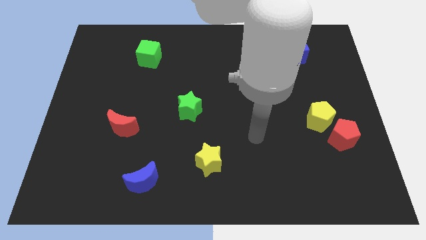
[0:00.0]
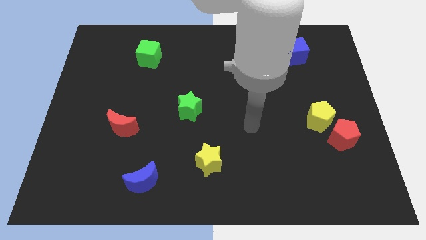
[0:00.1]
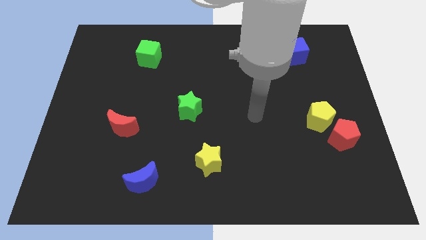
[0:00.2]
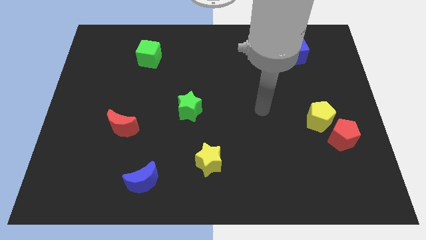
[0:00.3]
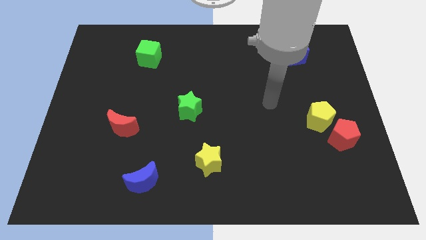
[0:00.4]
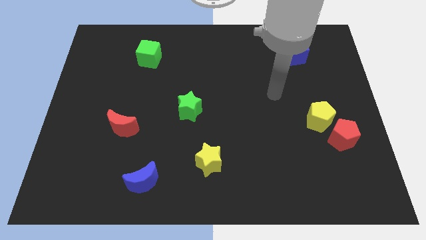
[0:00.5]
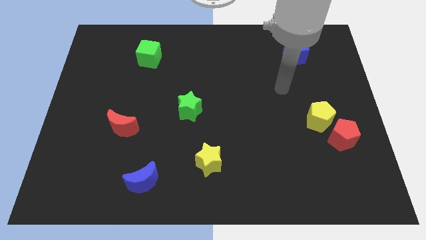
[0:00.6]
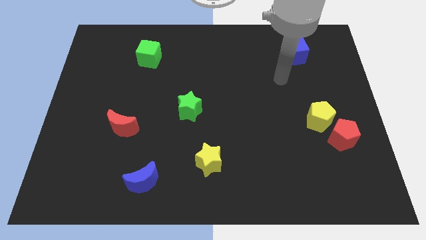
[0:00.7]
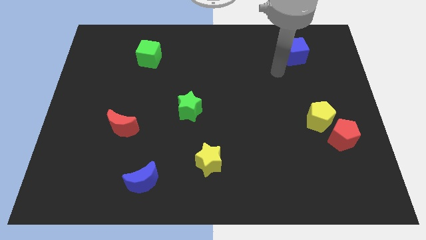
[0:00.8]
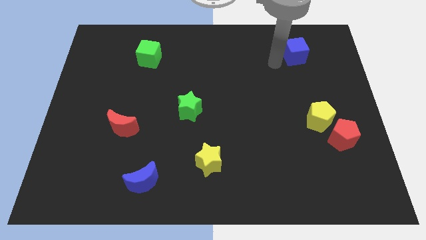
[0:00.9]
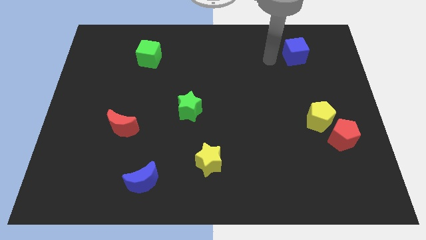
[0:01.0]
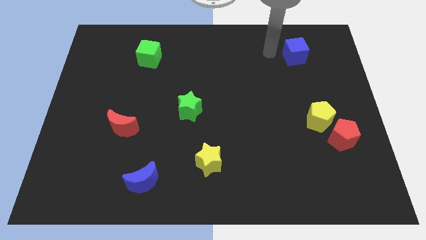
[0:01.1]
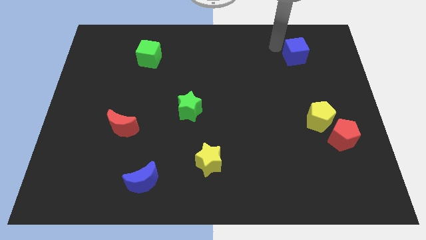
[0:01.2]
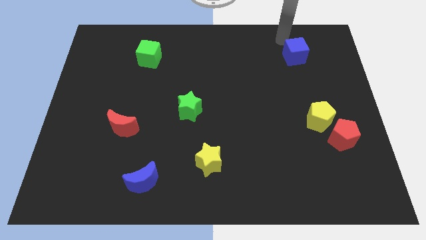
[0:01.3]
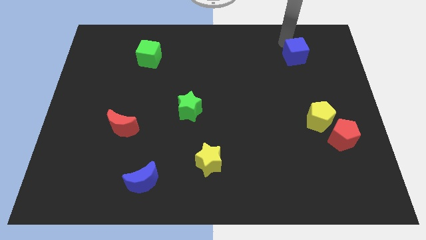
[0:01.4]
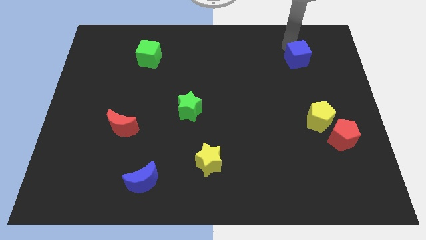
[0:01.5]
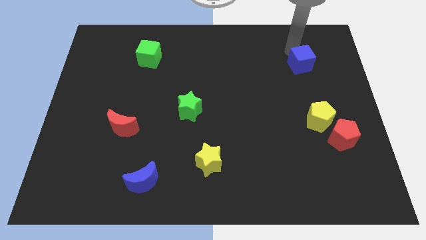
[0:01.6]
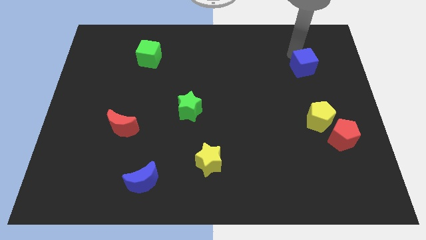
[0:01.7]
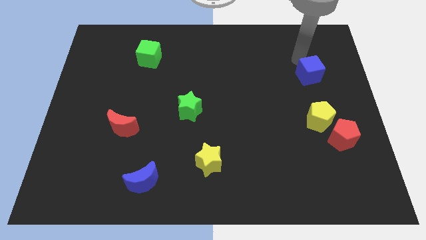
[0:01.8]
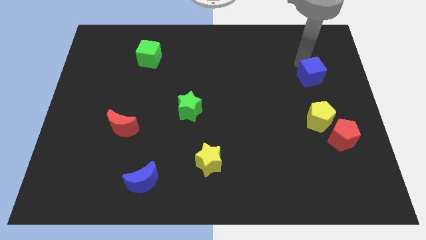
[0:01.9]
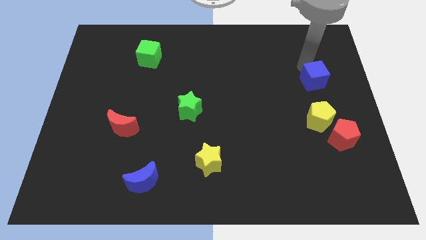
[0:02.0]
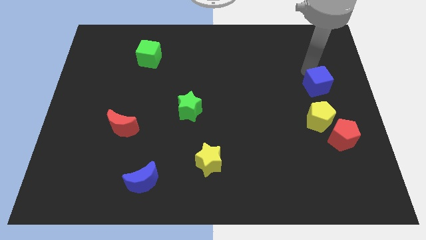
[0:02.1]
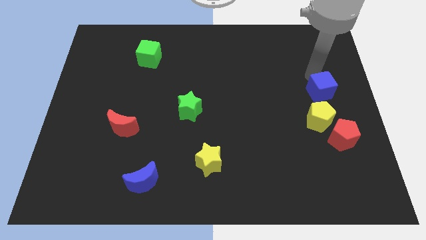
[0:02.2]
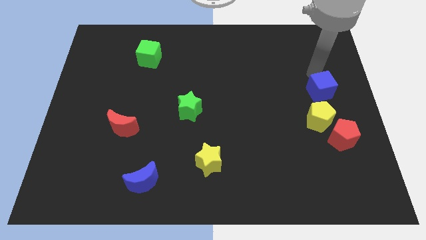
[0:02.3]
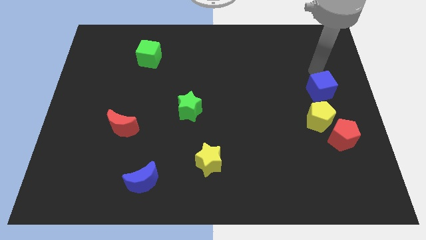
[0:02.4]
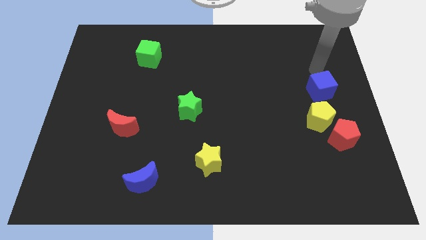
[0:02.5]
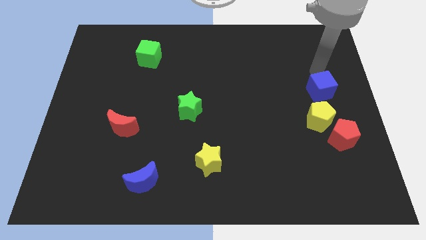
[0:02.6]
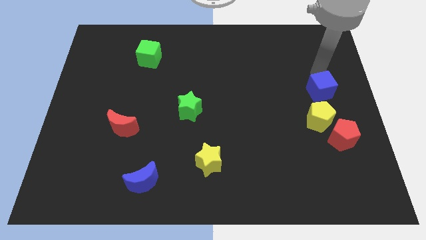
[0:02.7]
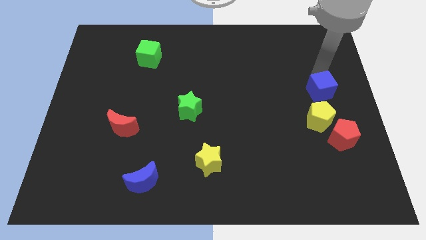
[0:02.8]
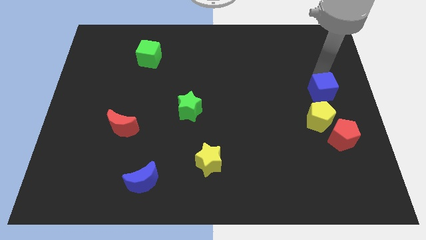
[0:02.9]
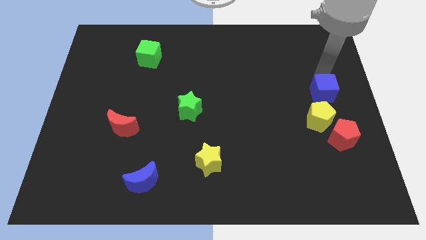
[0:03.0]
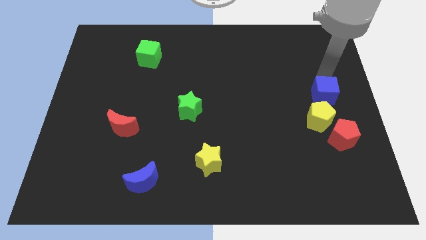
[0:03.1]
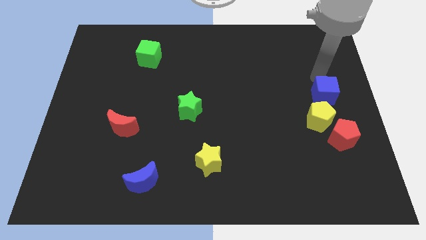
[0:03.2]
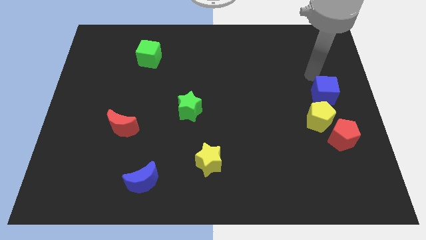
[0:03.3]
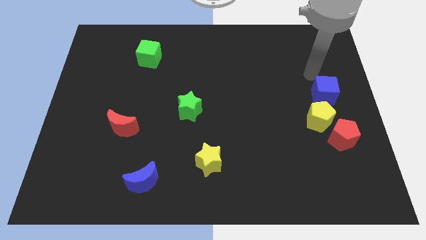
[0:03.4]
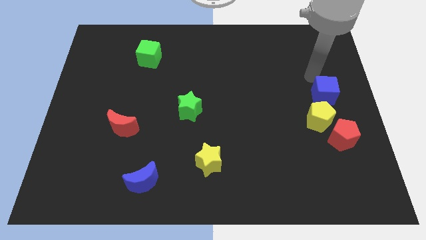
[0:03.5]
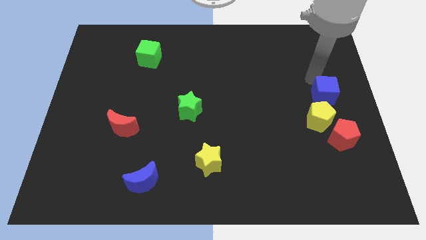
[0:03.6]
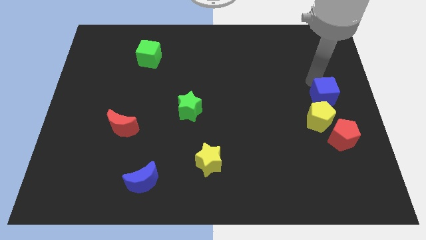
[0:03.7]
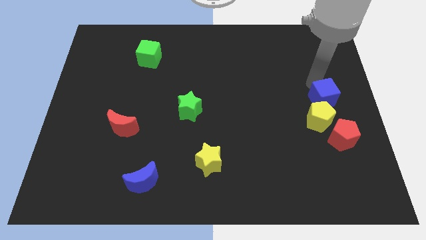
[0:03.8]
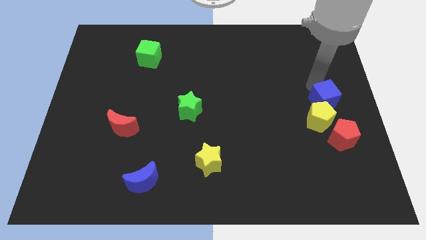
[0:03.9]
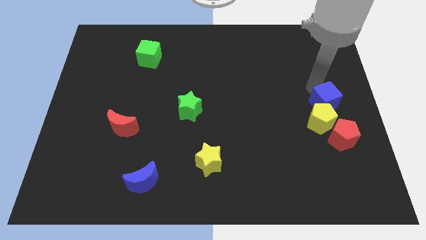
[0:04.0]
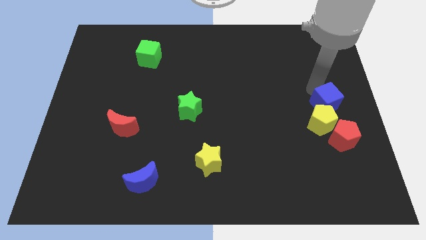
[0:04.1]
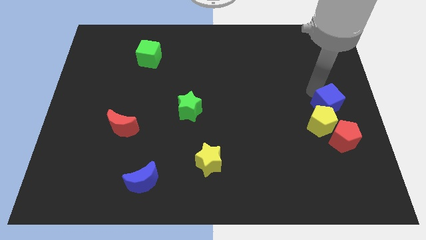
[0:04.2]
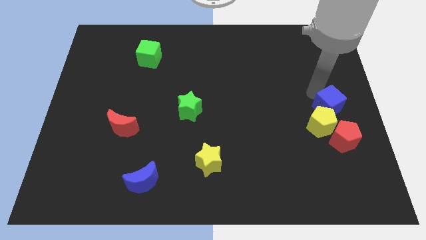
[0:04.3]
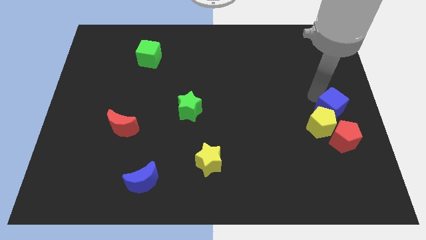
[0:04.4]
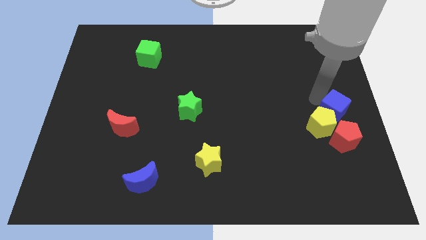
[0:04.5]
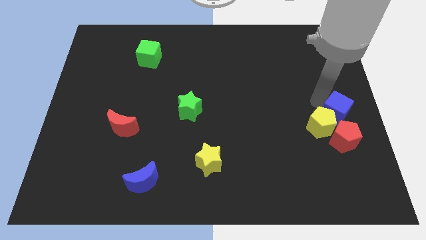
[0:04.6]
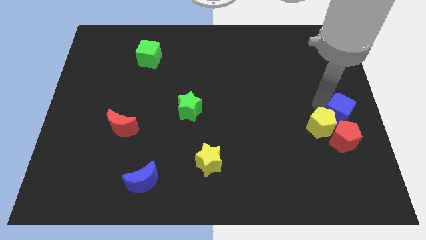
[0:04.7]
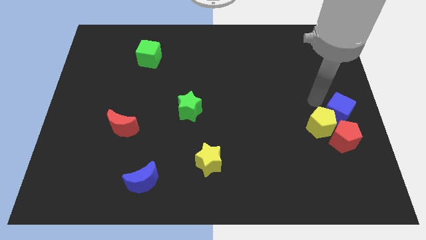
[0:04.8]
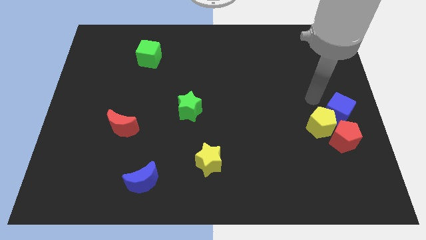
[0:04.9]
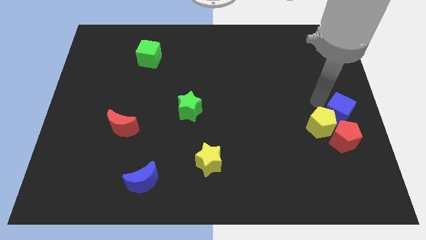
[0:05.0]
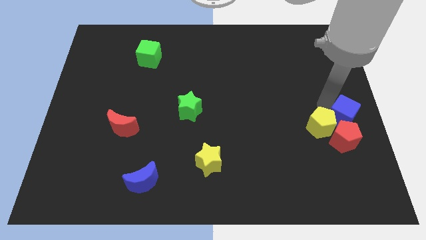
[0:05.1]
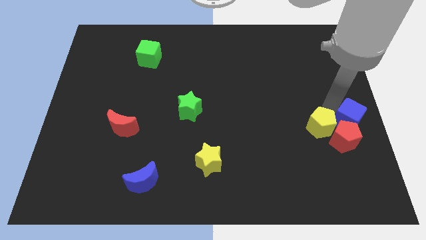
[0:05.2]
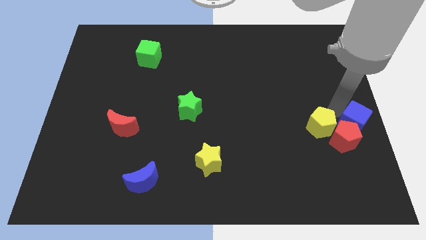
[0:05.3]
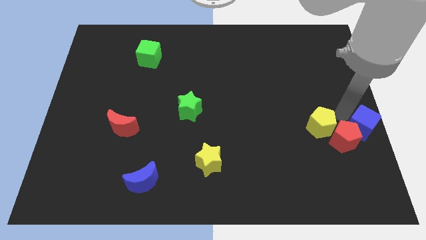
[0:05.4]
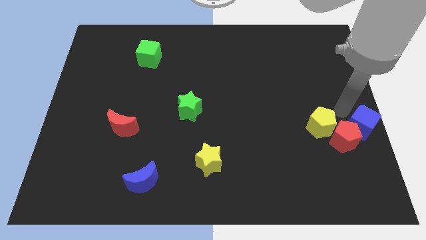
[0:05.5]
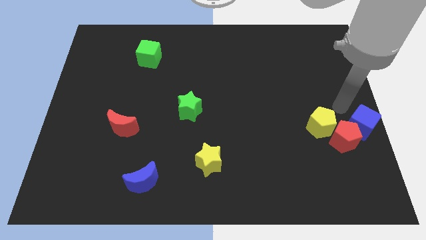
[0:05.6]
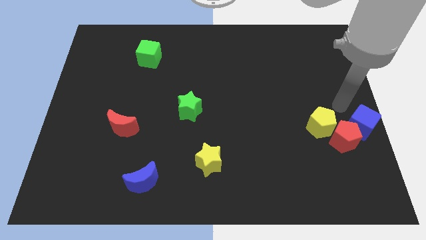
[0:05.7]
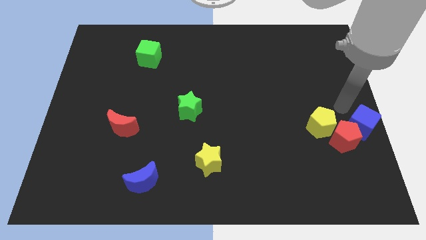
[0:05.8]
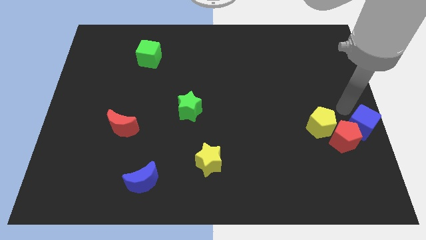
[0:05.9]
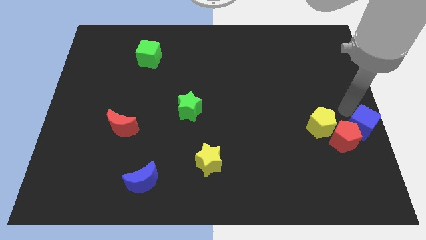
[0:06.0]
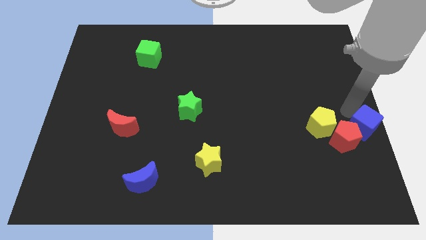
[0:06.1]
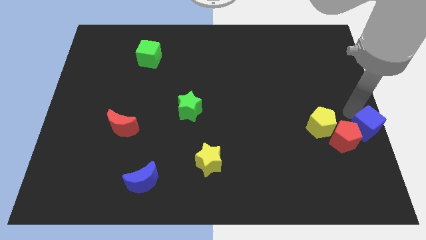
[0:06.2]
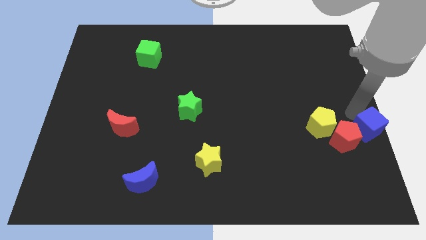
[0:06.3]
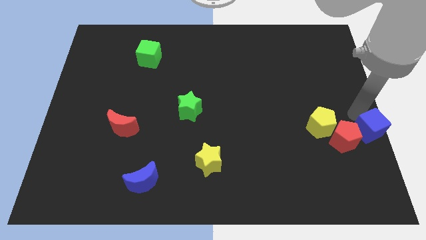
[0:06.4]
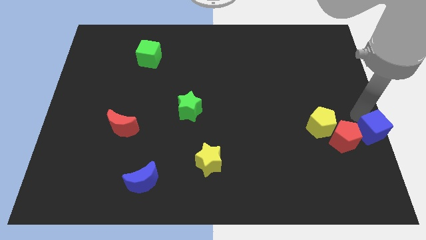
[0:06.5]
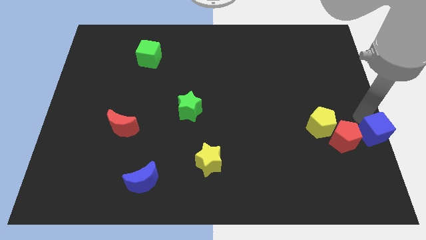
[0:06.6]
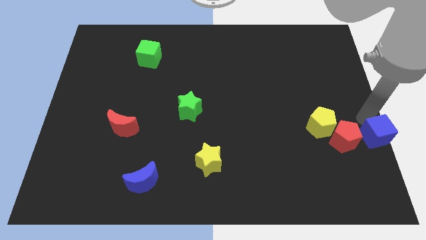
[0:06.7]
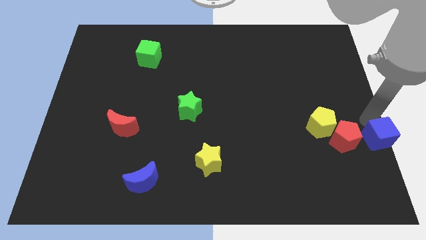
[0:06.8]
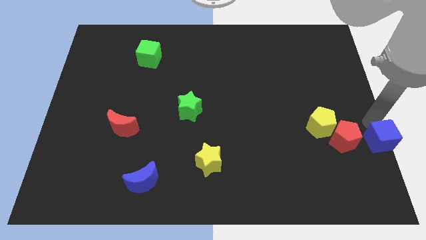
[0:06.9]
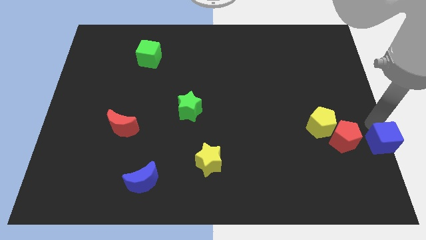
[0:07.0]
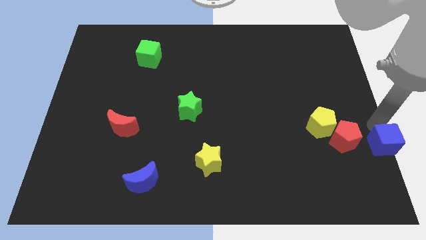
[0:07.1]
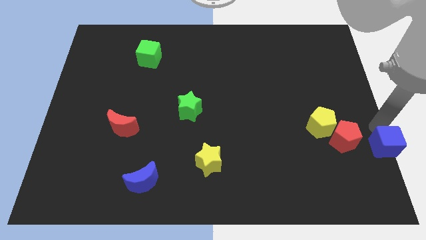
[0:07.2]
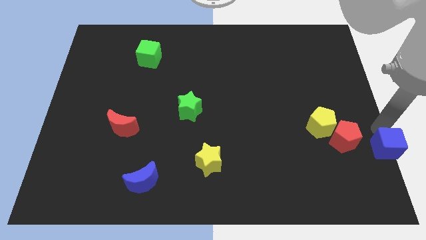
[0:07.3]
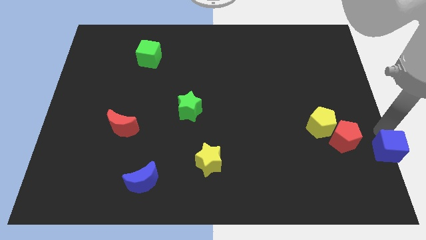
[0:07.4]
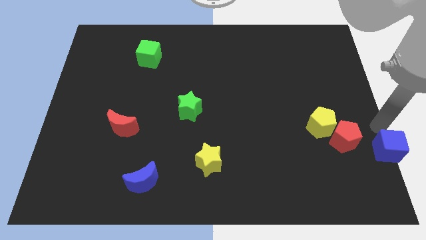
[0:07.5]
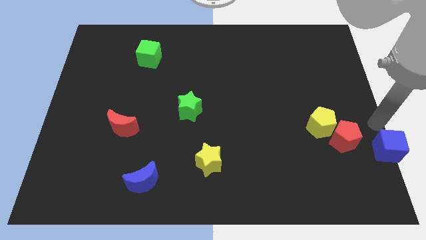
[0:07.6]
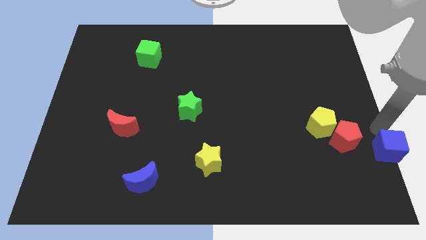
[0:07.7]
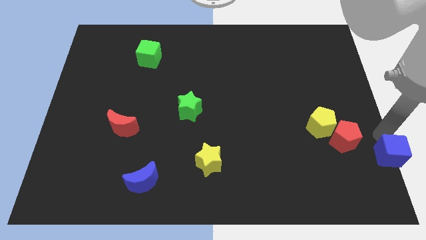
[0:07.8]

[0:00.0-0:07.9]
put the blue cube to the bottom right of the board

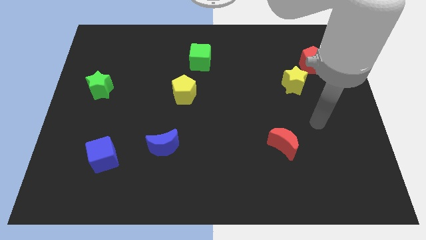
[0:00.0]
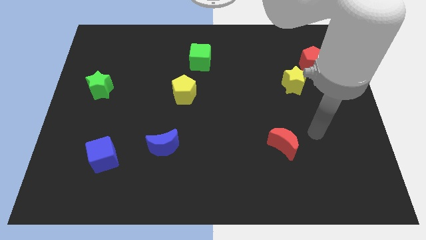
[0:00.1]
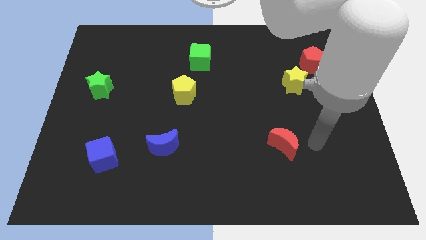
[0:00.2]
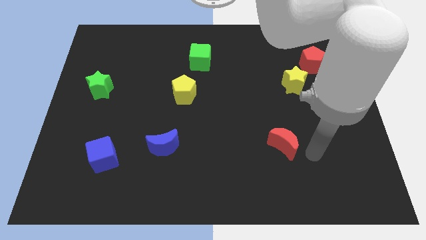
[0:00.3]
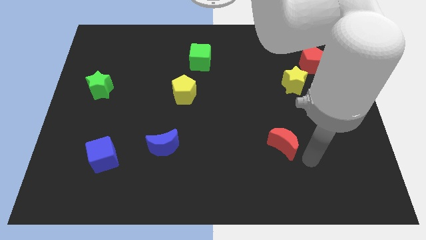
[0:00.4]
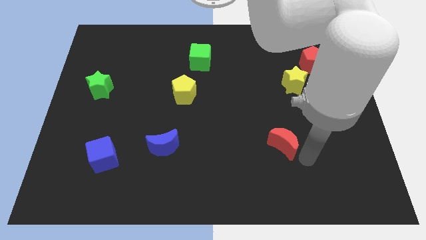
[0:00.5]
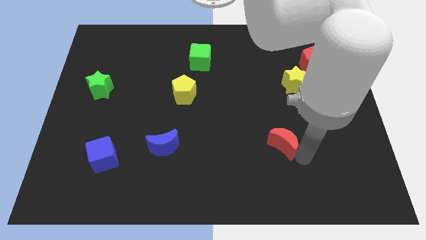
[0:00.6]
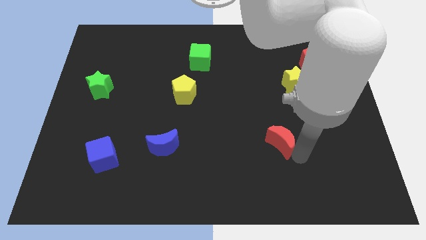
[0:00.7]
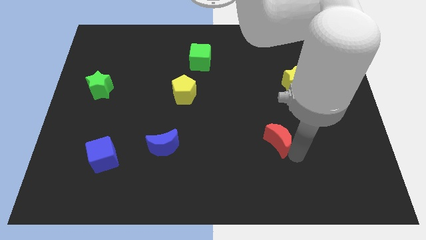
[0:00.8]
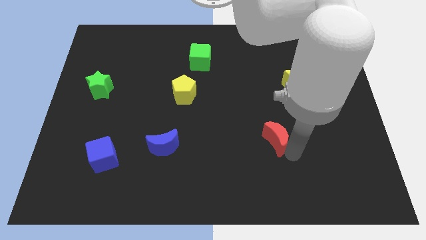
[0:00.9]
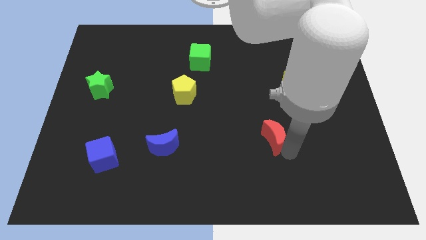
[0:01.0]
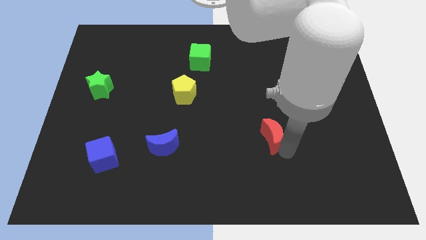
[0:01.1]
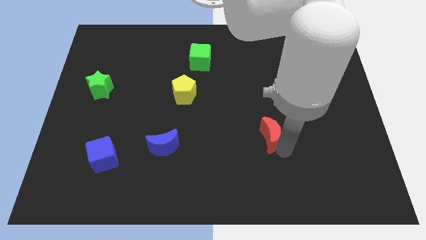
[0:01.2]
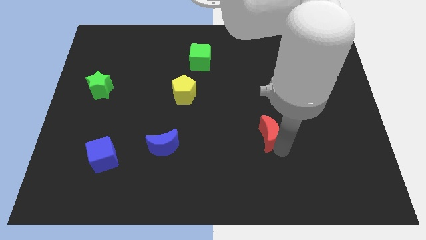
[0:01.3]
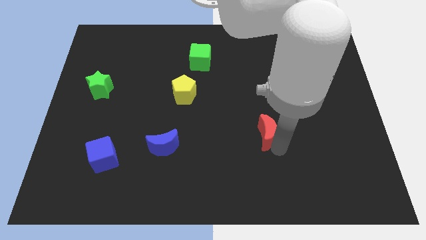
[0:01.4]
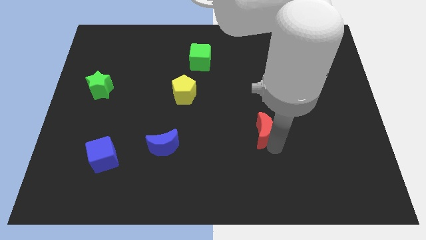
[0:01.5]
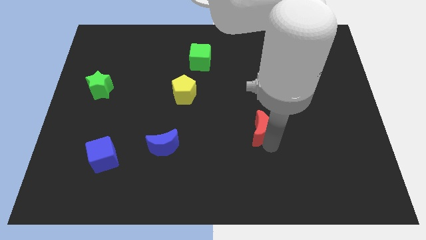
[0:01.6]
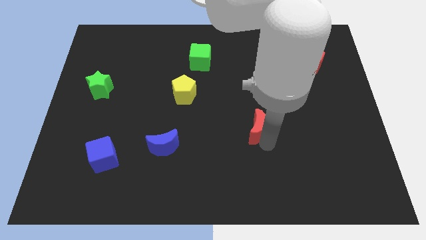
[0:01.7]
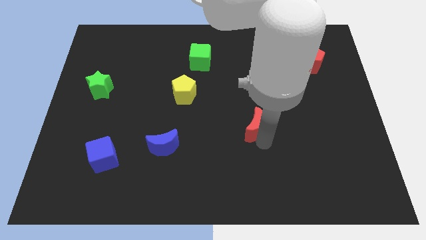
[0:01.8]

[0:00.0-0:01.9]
put the red moon to the center of the board
